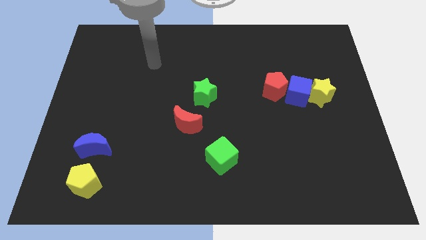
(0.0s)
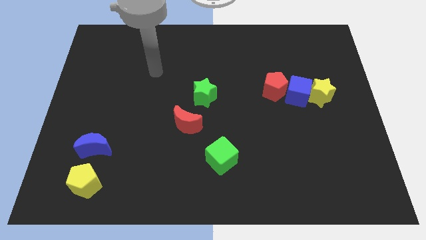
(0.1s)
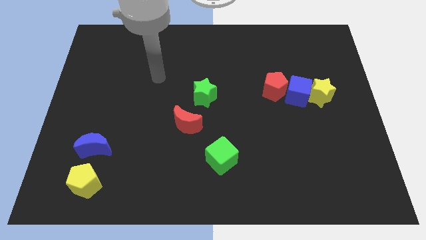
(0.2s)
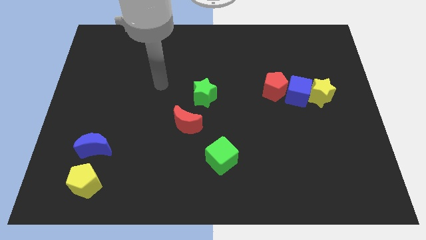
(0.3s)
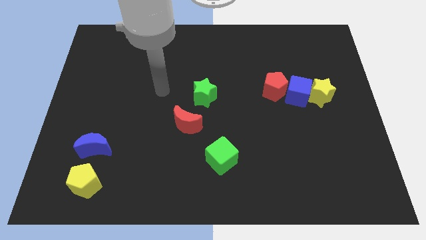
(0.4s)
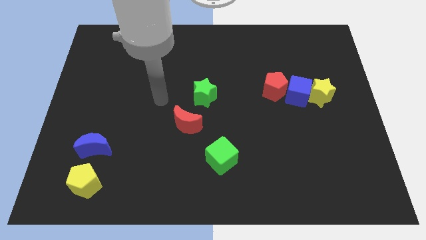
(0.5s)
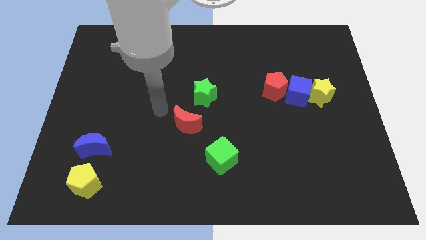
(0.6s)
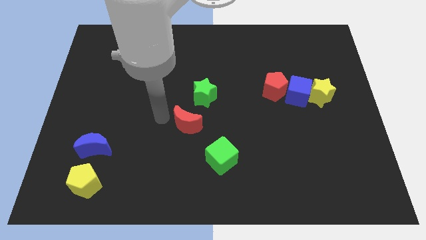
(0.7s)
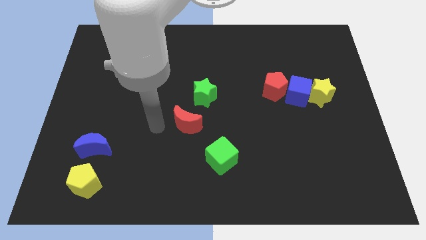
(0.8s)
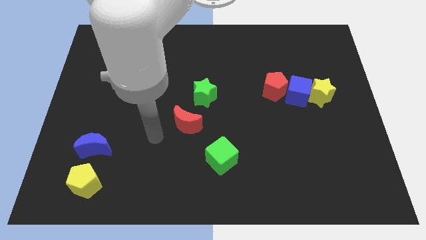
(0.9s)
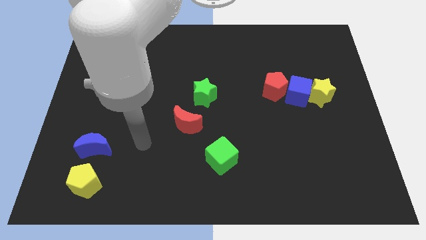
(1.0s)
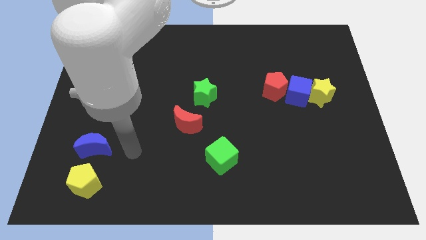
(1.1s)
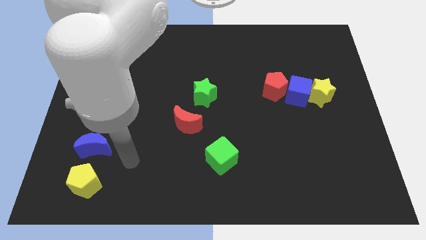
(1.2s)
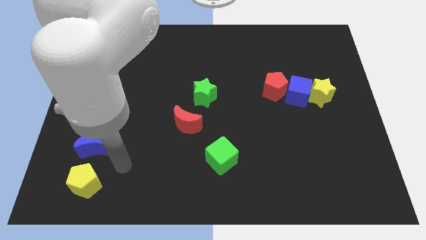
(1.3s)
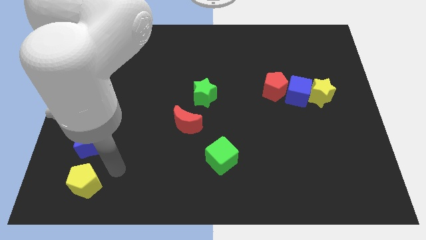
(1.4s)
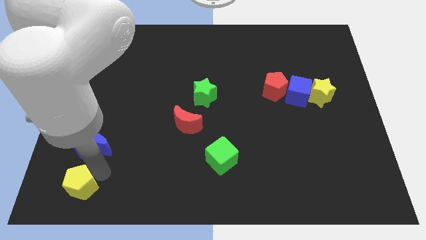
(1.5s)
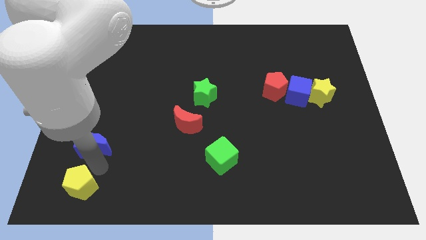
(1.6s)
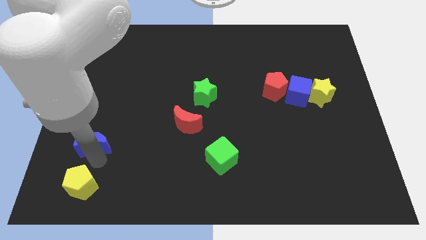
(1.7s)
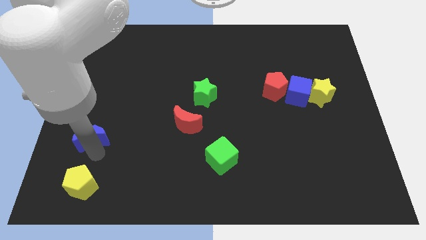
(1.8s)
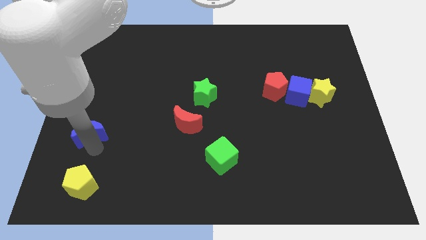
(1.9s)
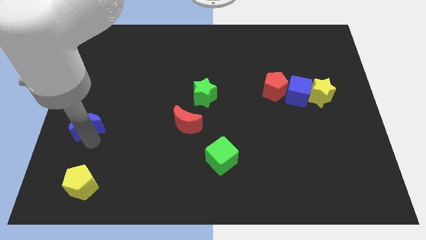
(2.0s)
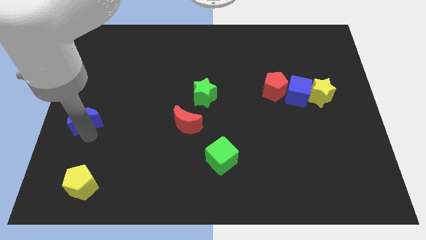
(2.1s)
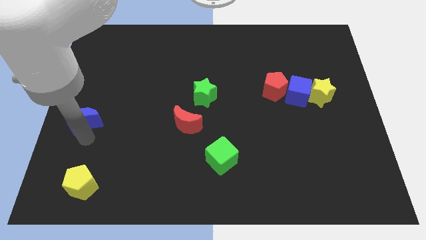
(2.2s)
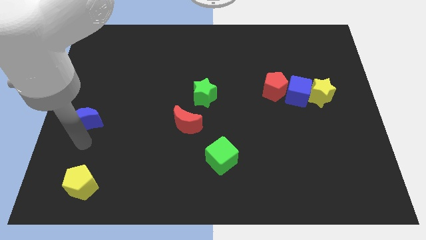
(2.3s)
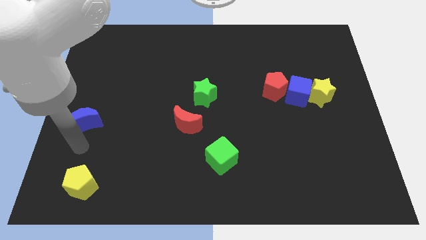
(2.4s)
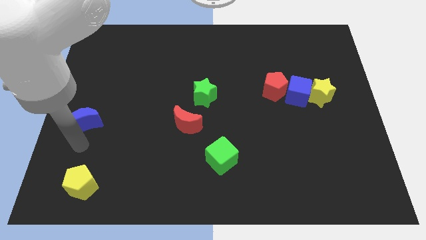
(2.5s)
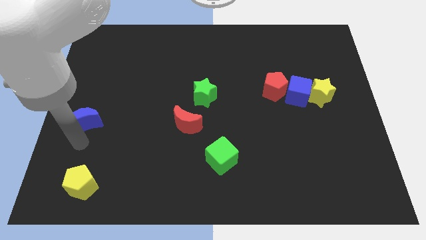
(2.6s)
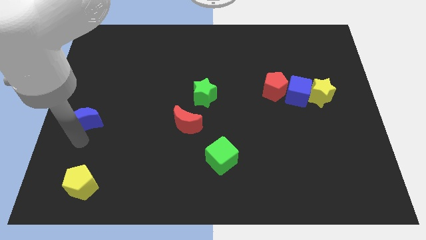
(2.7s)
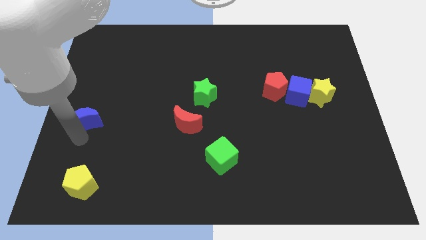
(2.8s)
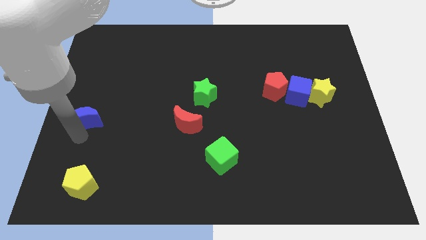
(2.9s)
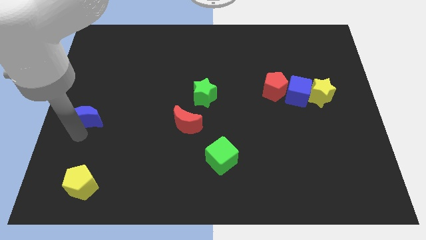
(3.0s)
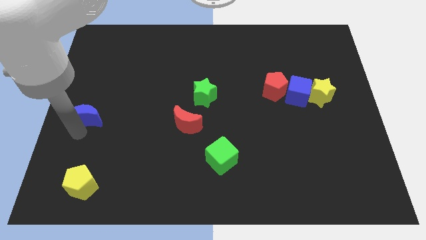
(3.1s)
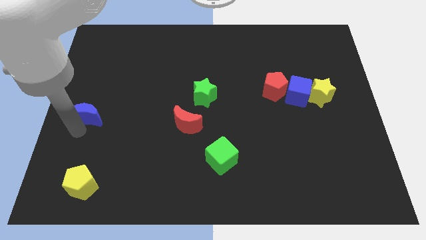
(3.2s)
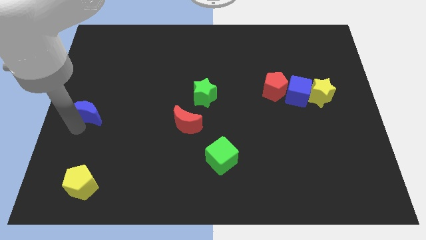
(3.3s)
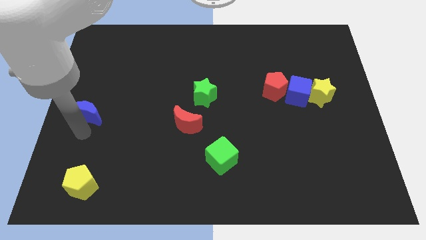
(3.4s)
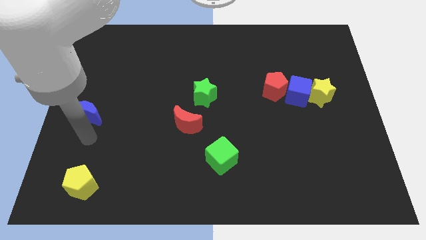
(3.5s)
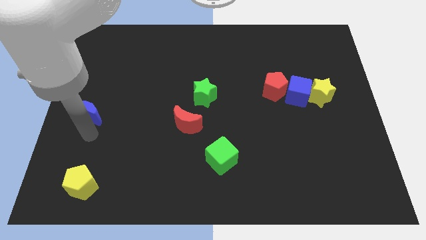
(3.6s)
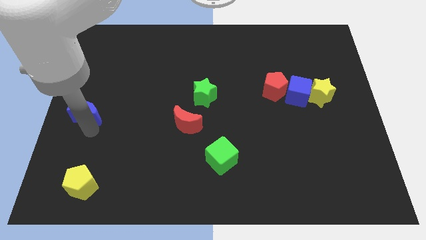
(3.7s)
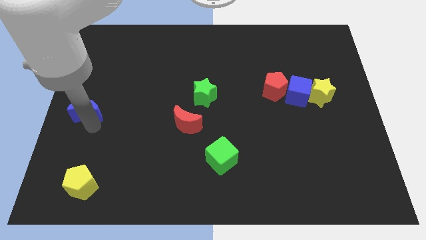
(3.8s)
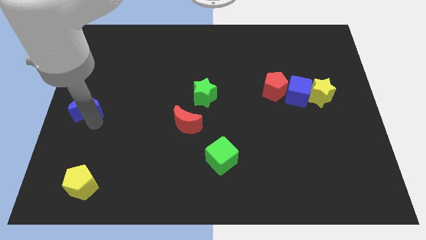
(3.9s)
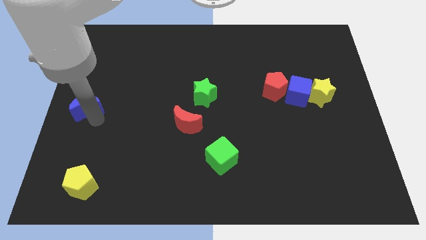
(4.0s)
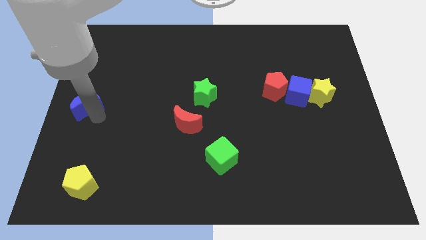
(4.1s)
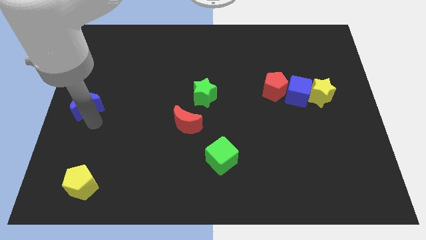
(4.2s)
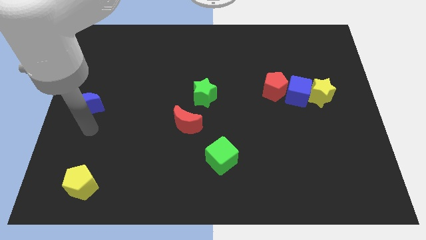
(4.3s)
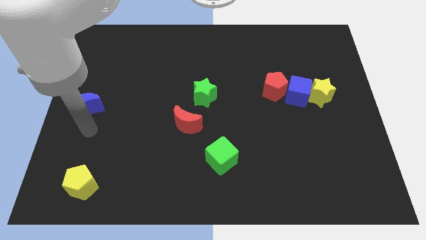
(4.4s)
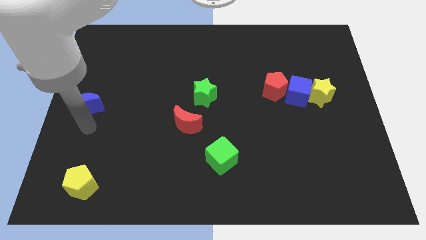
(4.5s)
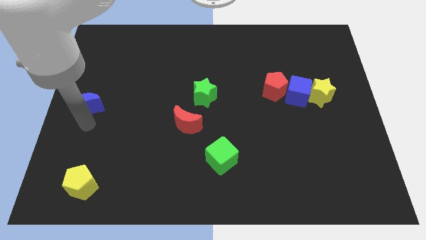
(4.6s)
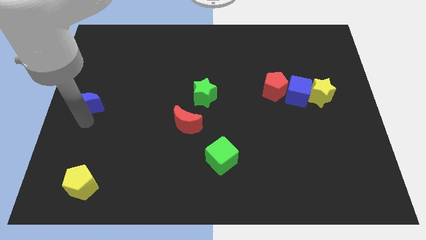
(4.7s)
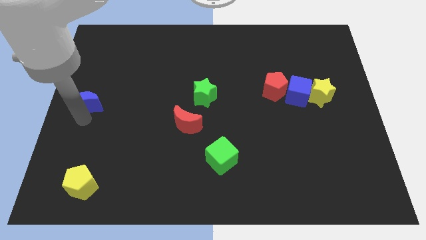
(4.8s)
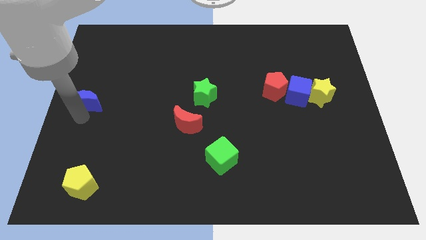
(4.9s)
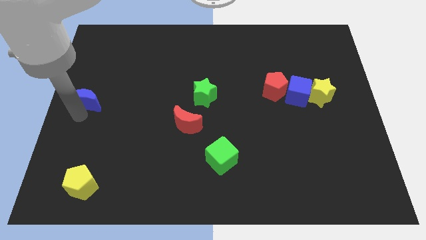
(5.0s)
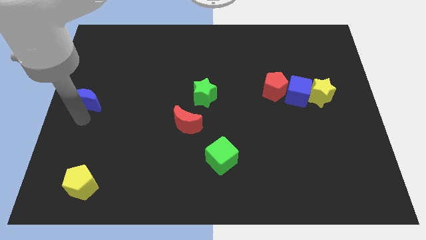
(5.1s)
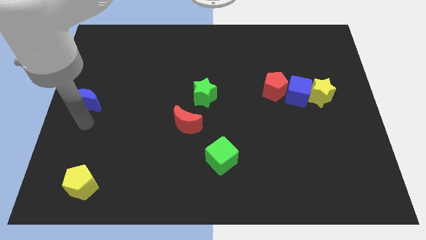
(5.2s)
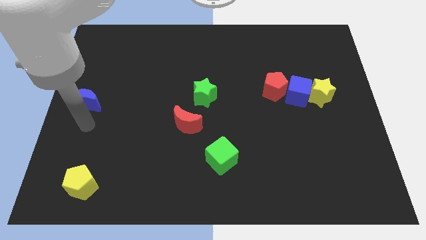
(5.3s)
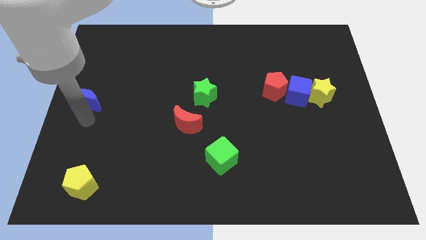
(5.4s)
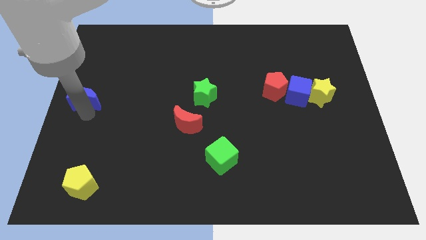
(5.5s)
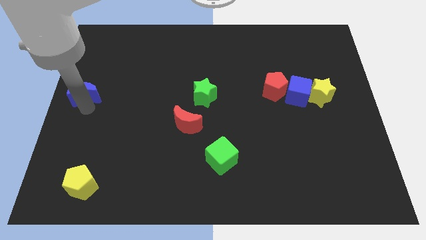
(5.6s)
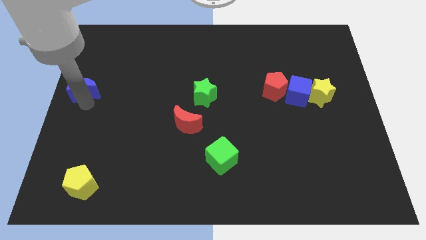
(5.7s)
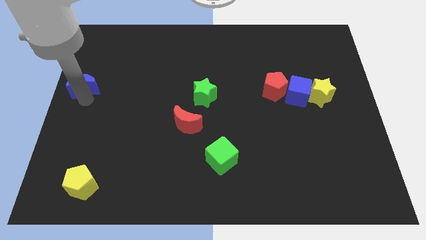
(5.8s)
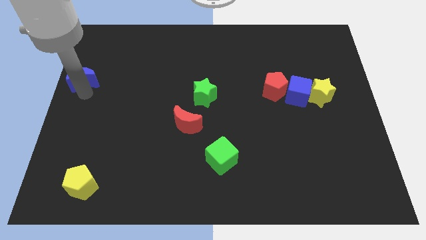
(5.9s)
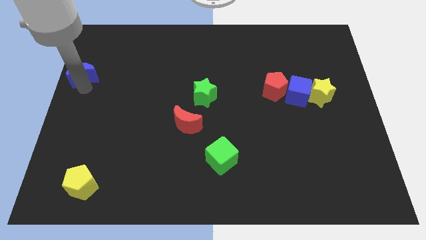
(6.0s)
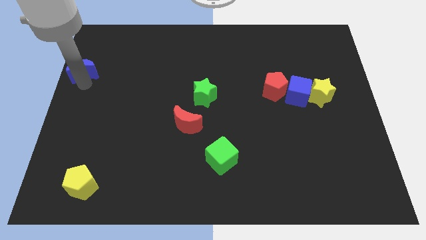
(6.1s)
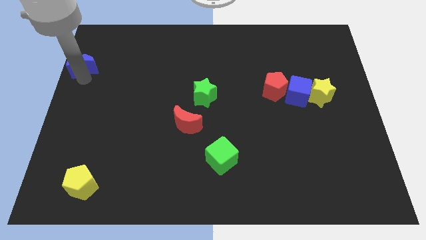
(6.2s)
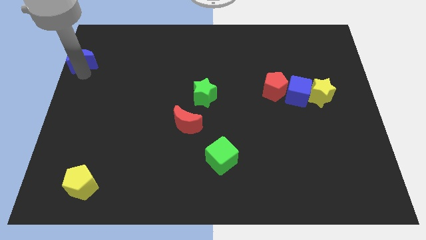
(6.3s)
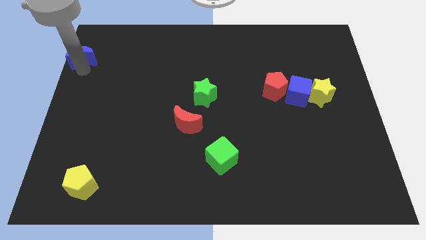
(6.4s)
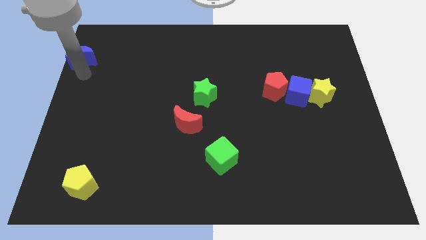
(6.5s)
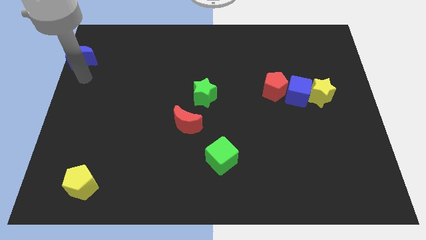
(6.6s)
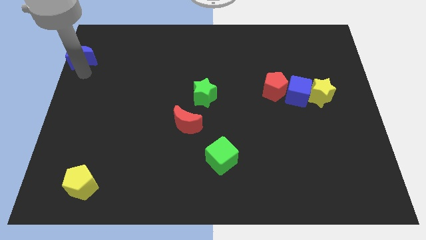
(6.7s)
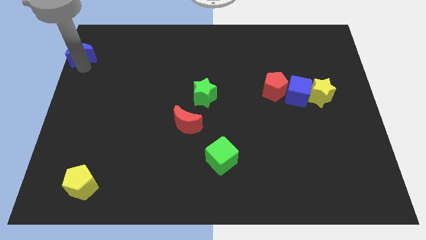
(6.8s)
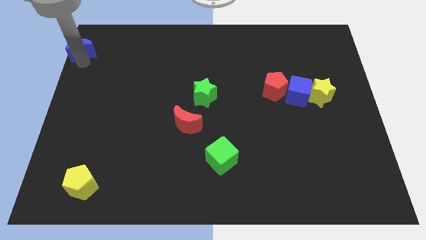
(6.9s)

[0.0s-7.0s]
put the blue moon to the top left corner

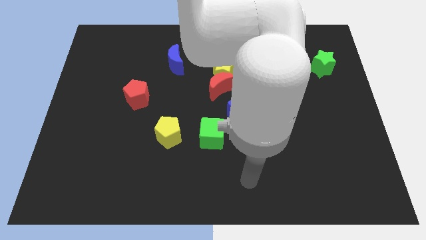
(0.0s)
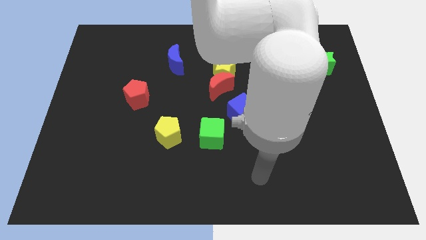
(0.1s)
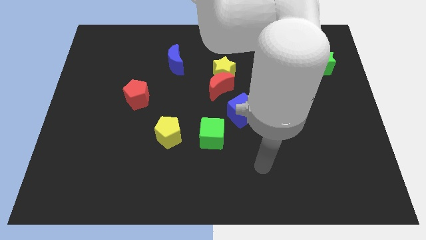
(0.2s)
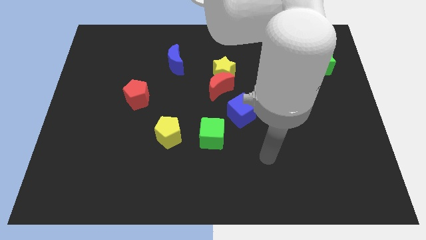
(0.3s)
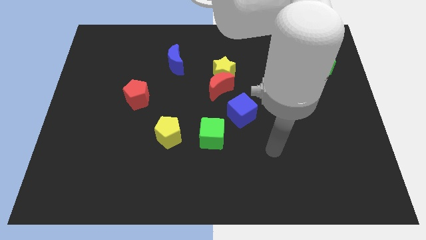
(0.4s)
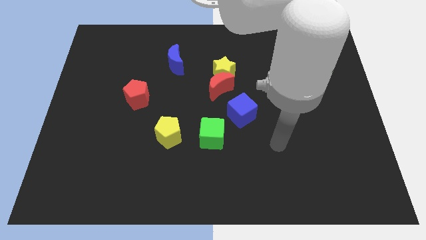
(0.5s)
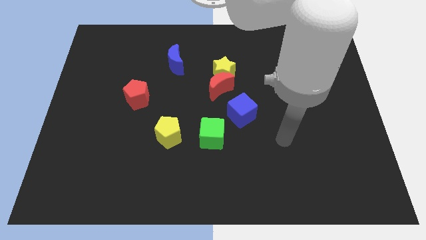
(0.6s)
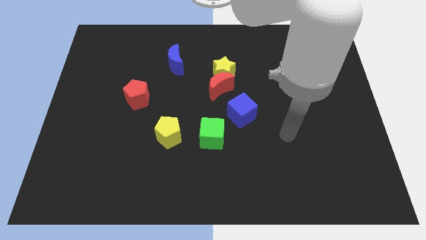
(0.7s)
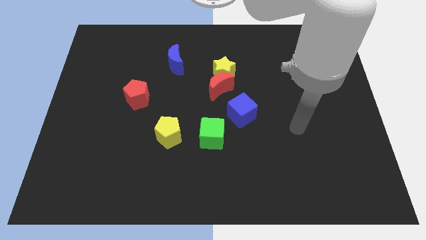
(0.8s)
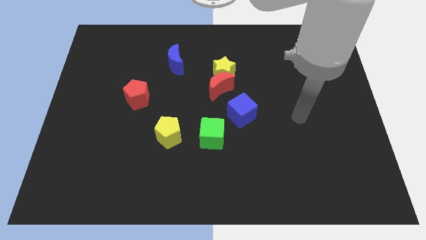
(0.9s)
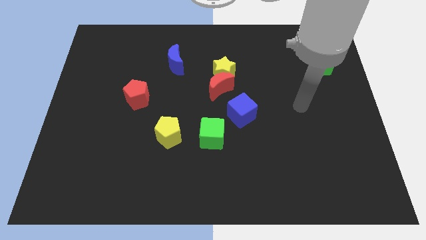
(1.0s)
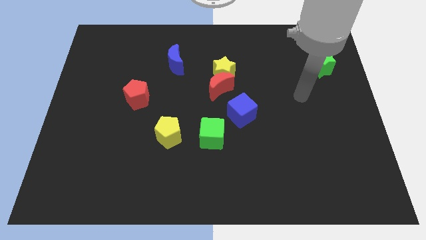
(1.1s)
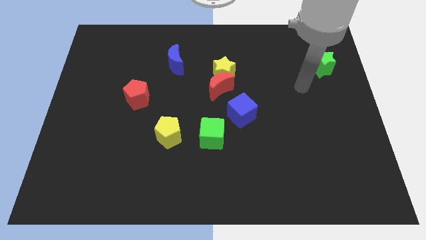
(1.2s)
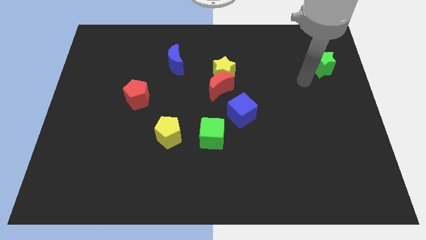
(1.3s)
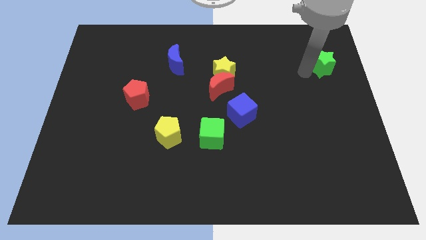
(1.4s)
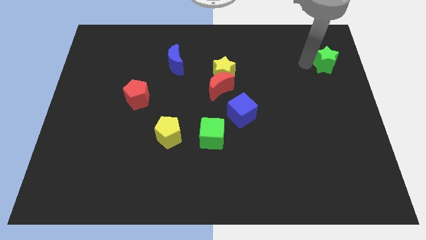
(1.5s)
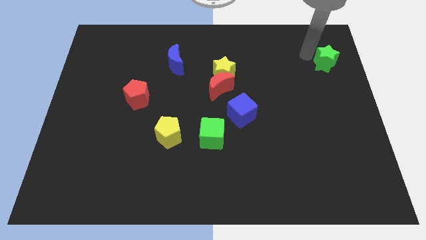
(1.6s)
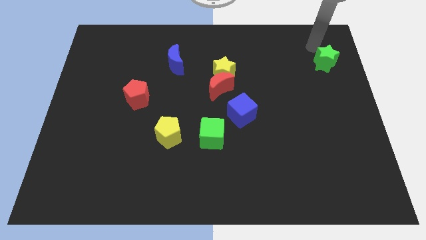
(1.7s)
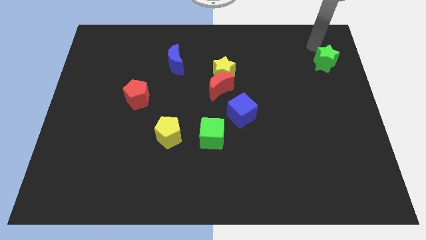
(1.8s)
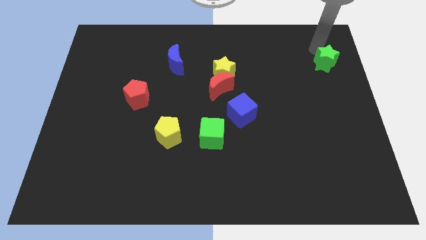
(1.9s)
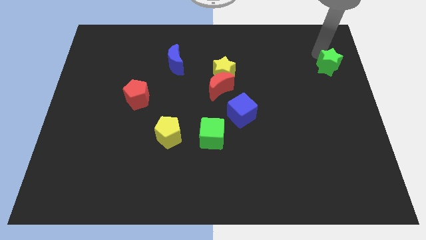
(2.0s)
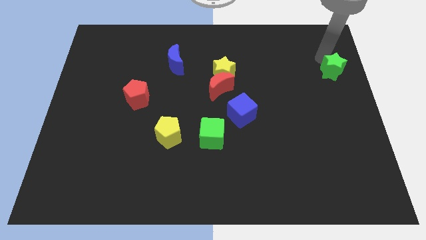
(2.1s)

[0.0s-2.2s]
move the green star to the right side of the board
